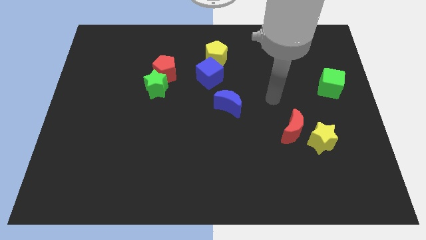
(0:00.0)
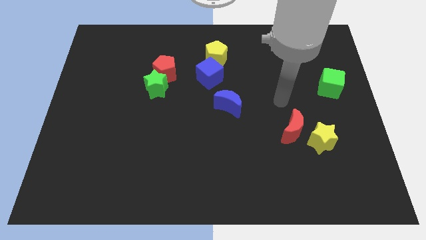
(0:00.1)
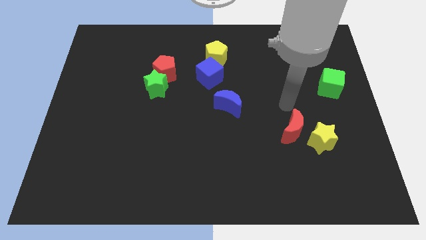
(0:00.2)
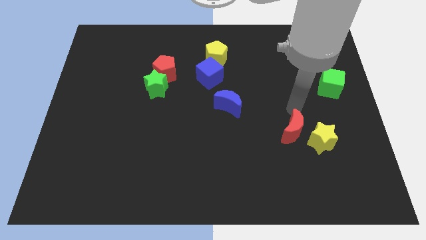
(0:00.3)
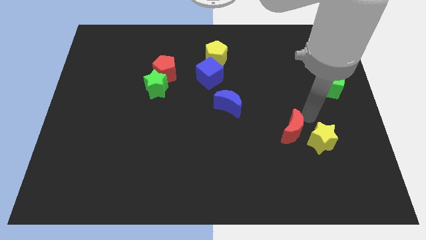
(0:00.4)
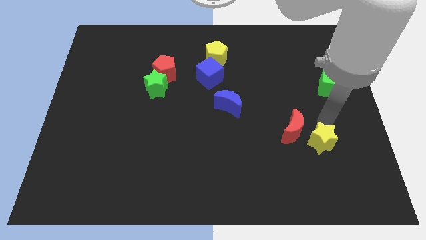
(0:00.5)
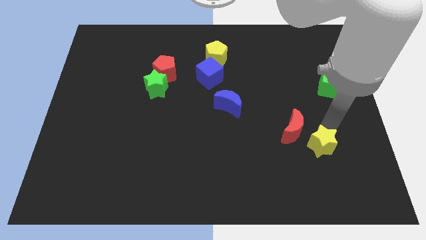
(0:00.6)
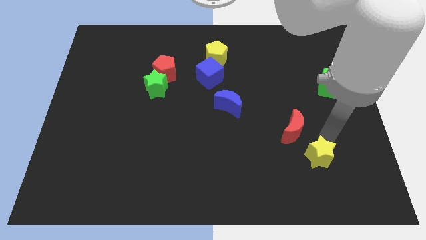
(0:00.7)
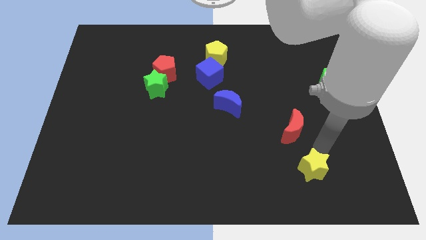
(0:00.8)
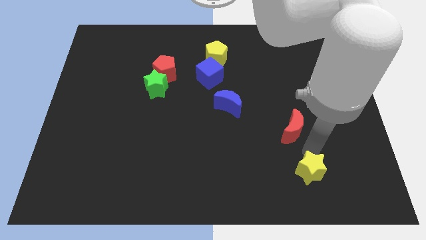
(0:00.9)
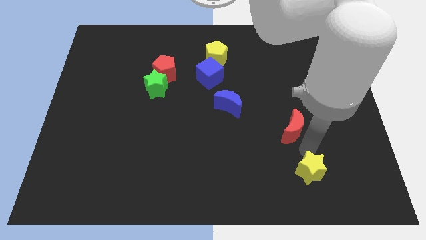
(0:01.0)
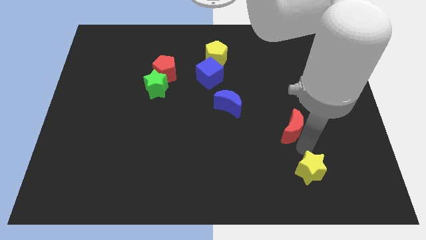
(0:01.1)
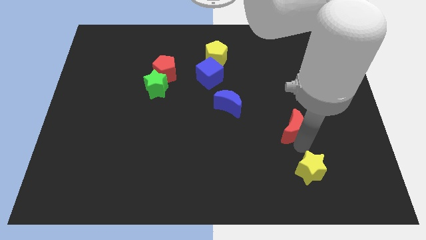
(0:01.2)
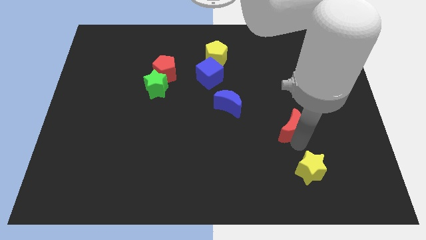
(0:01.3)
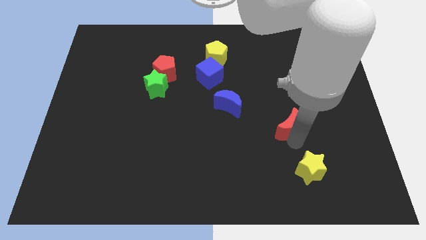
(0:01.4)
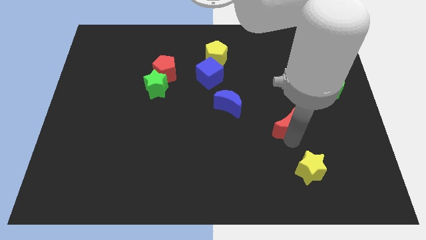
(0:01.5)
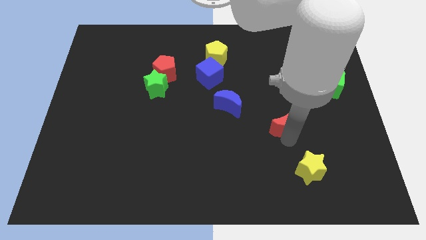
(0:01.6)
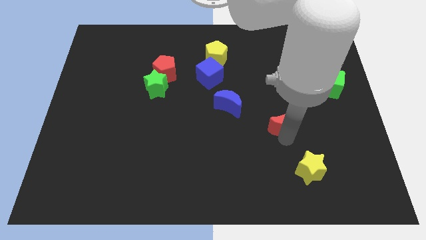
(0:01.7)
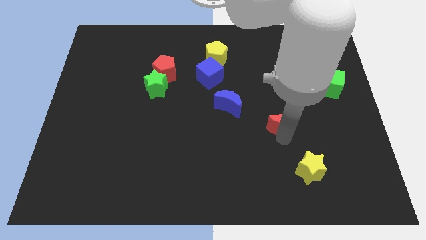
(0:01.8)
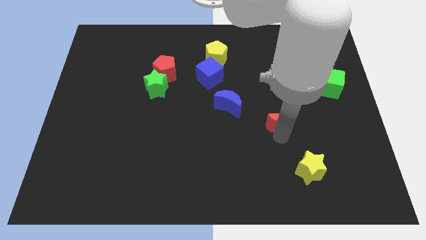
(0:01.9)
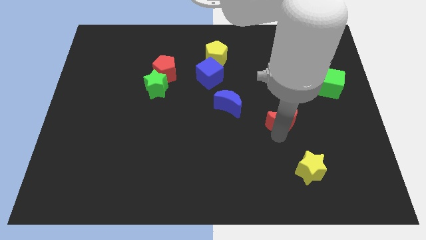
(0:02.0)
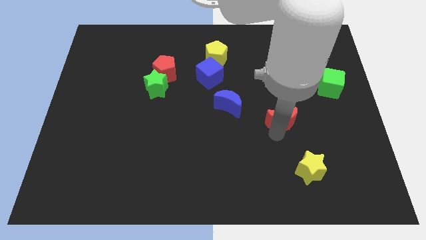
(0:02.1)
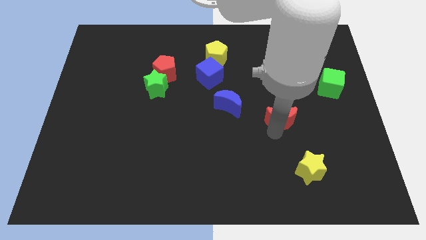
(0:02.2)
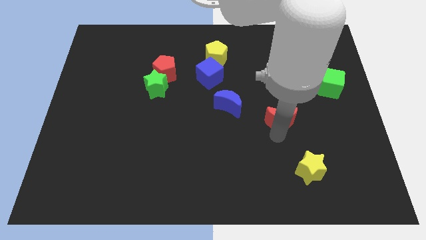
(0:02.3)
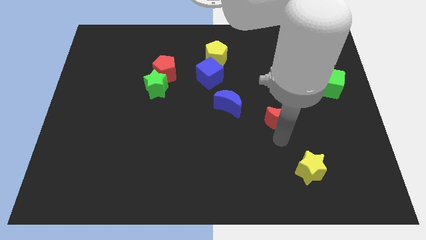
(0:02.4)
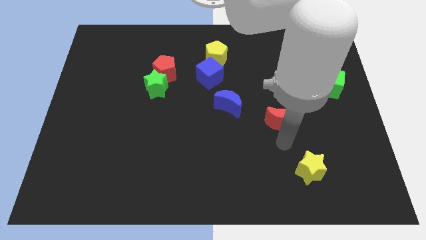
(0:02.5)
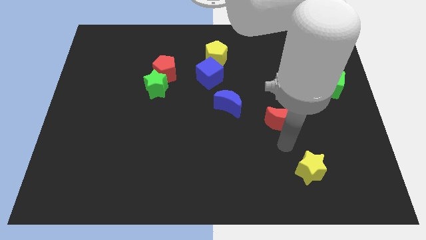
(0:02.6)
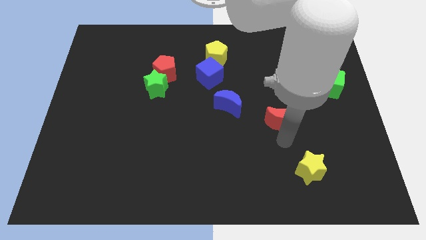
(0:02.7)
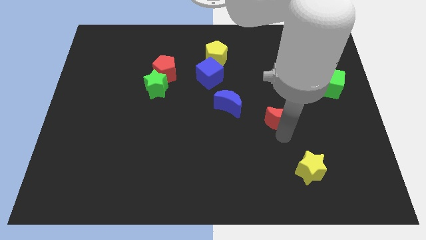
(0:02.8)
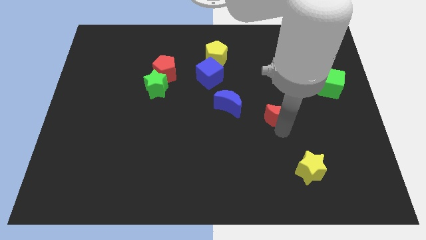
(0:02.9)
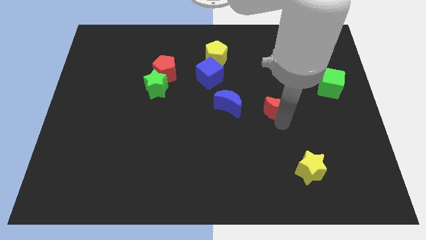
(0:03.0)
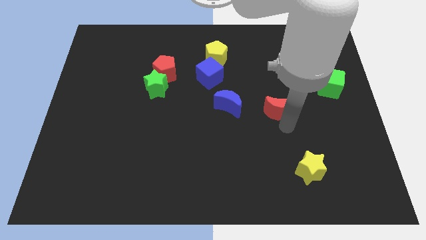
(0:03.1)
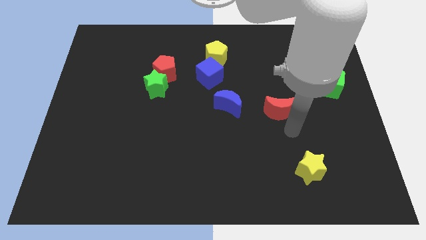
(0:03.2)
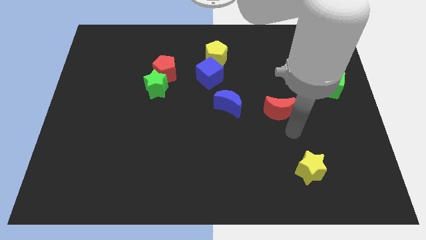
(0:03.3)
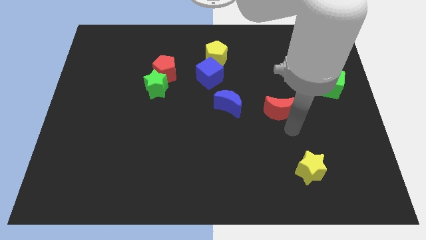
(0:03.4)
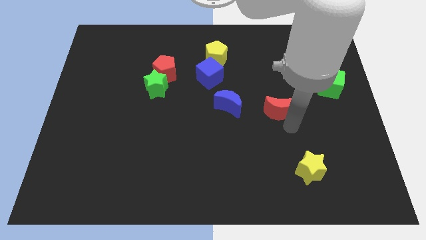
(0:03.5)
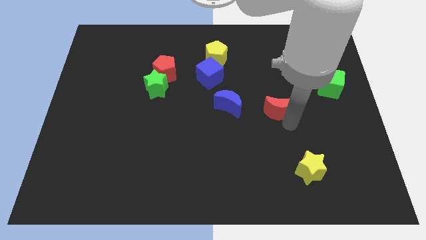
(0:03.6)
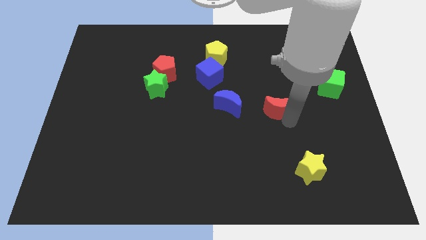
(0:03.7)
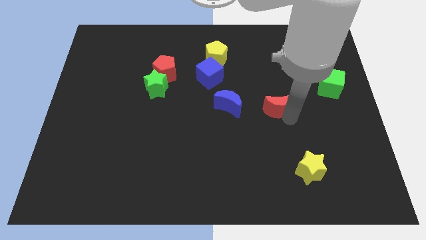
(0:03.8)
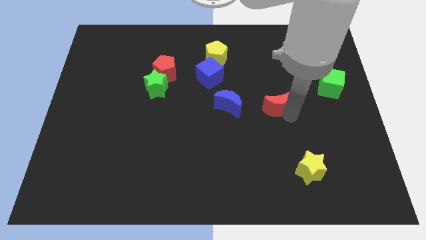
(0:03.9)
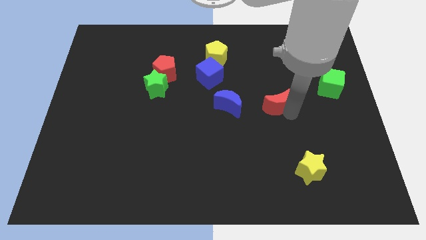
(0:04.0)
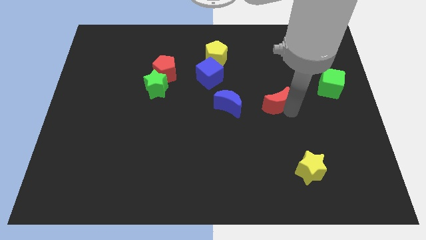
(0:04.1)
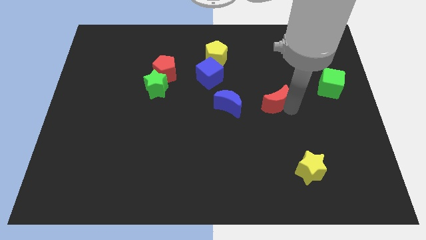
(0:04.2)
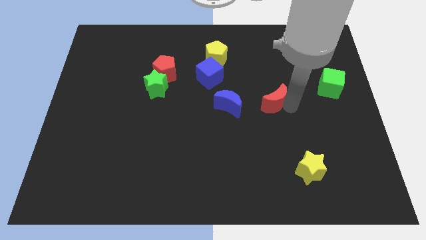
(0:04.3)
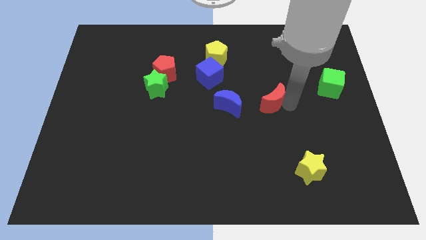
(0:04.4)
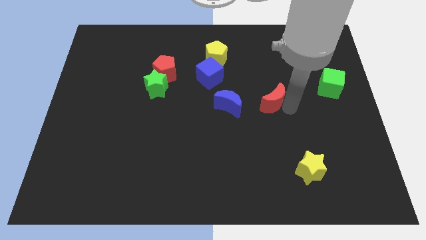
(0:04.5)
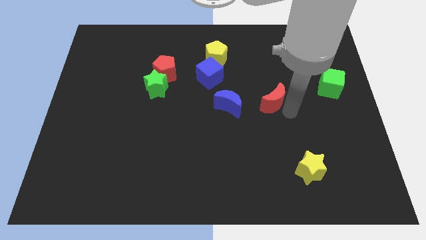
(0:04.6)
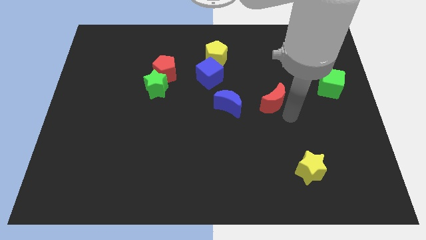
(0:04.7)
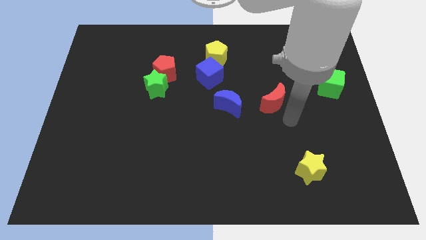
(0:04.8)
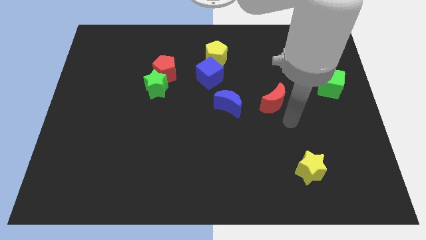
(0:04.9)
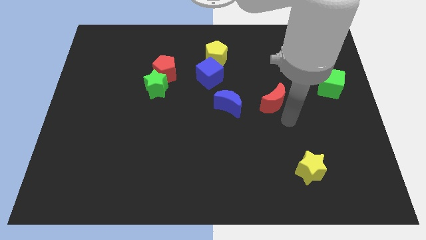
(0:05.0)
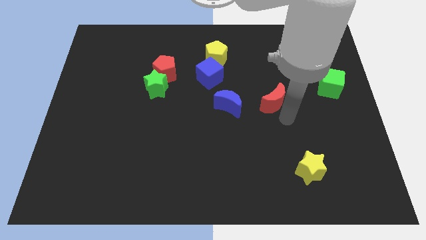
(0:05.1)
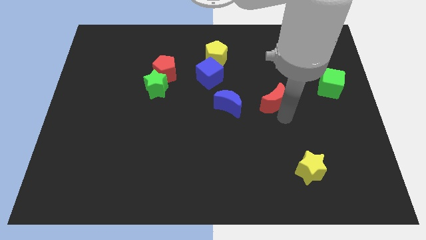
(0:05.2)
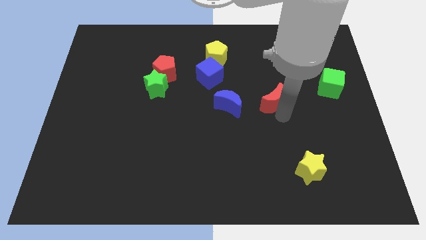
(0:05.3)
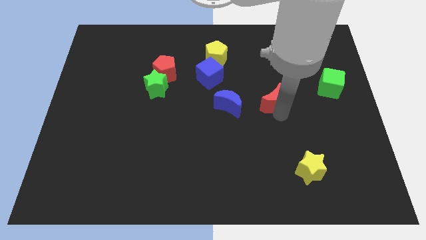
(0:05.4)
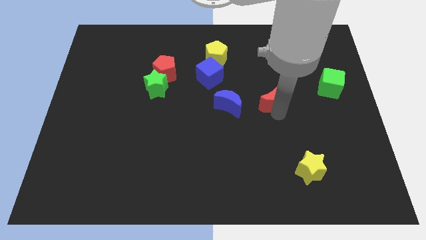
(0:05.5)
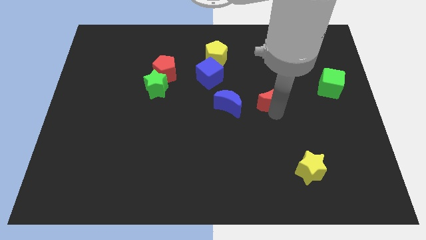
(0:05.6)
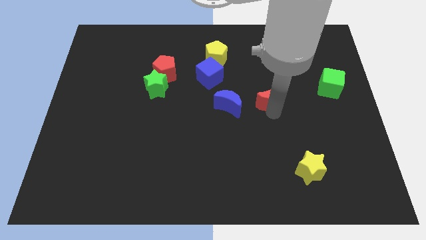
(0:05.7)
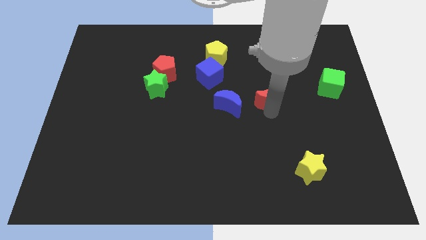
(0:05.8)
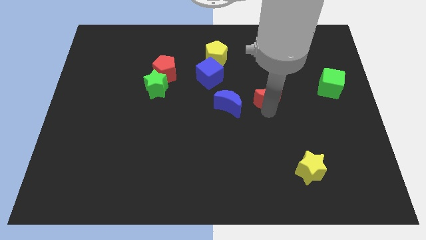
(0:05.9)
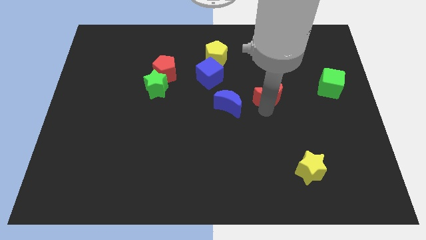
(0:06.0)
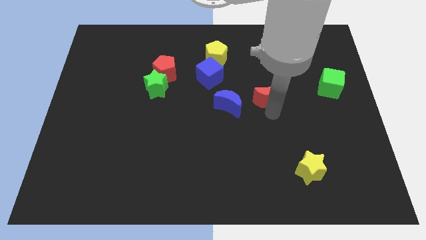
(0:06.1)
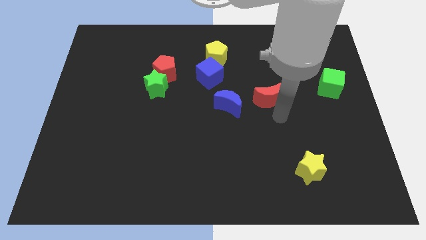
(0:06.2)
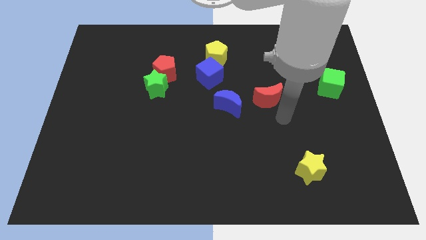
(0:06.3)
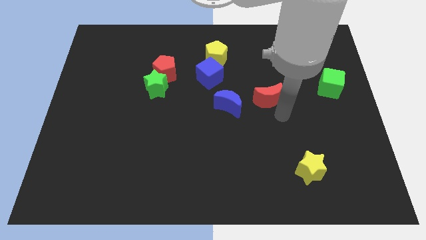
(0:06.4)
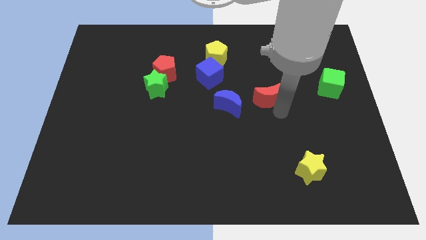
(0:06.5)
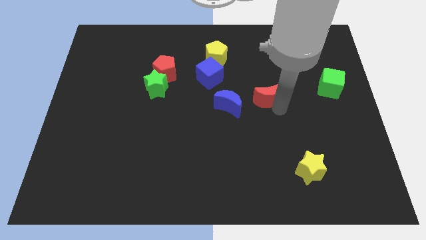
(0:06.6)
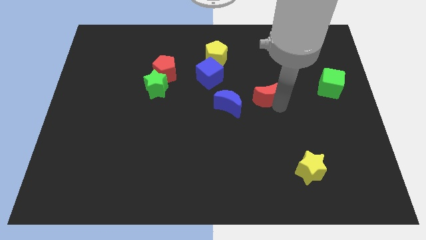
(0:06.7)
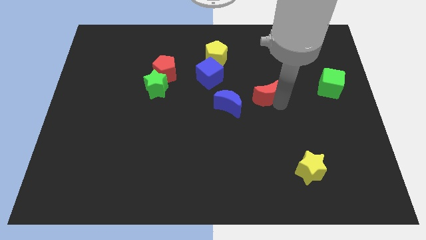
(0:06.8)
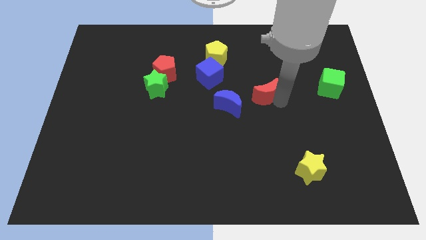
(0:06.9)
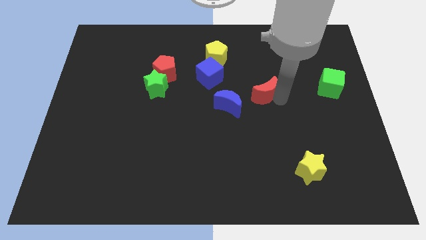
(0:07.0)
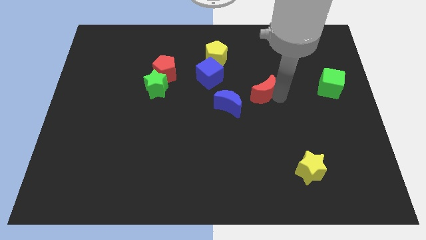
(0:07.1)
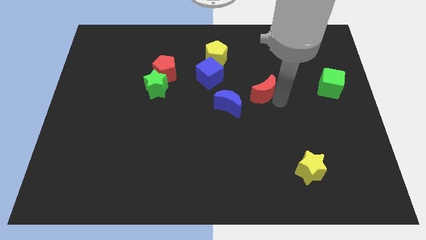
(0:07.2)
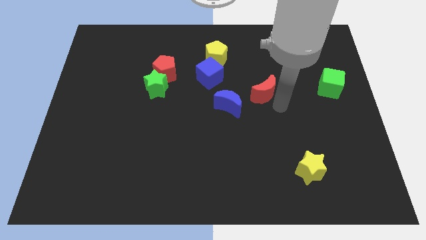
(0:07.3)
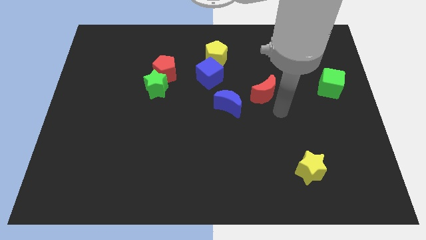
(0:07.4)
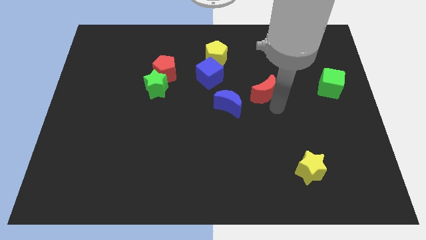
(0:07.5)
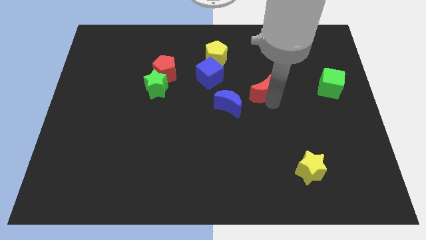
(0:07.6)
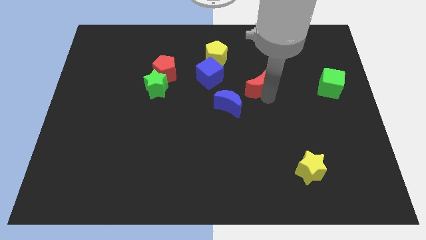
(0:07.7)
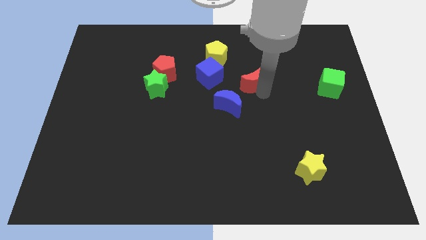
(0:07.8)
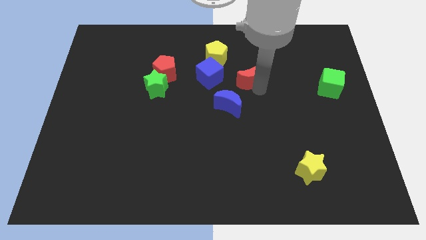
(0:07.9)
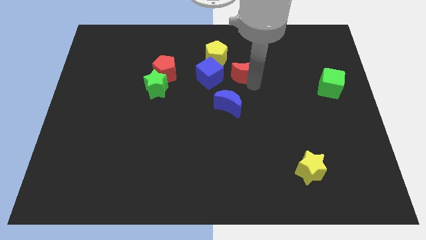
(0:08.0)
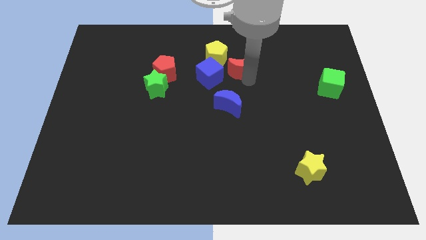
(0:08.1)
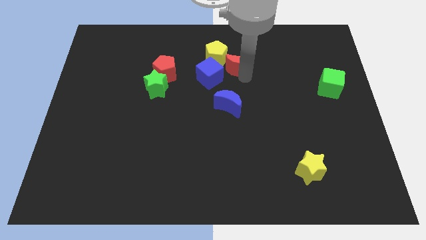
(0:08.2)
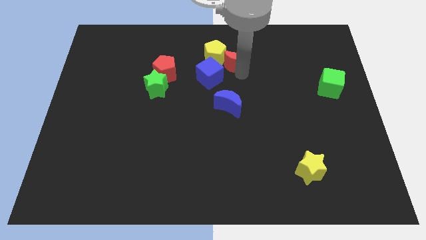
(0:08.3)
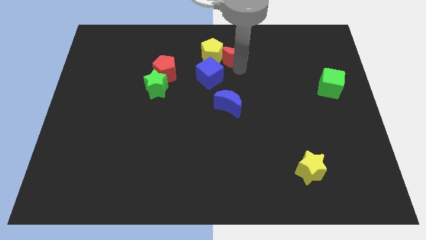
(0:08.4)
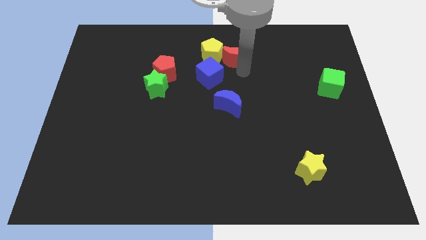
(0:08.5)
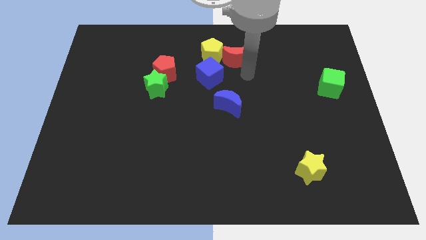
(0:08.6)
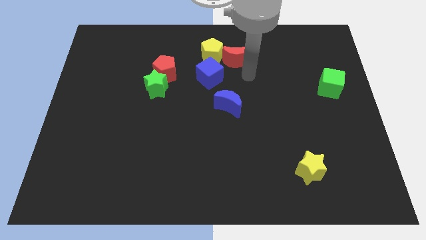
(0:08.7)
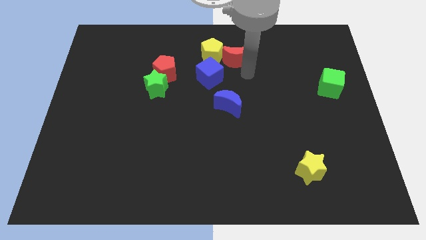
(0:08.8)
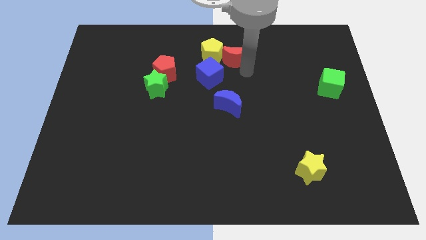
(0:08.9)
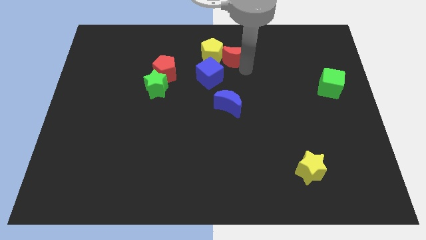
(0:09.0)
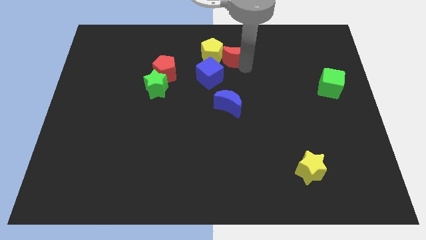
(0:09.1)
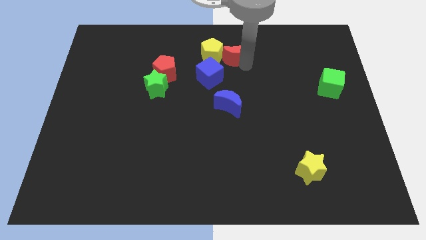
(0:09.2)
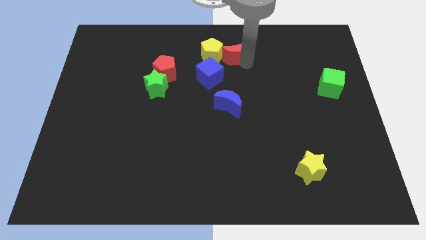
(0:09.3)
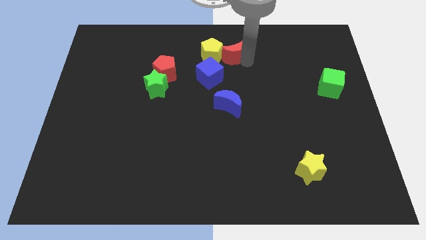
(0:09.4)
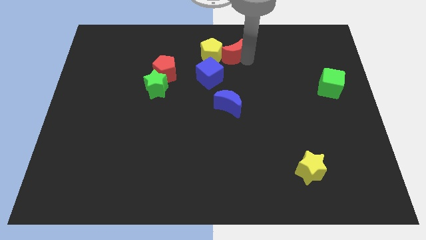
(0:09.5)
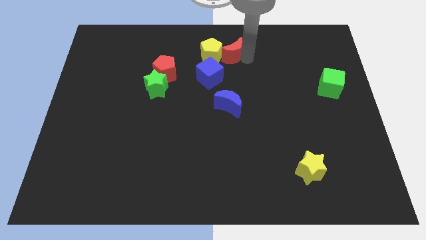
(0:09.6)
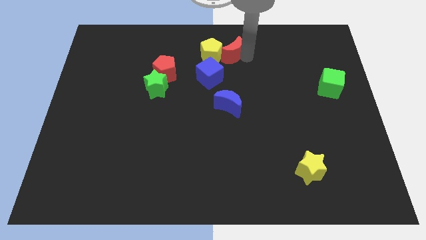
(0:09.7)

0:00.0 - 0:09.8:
slide the red moon to the towards your base
